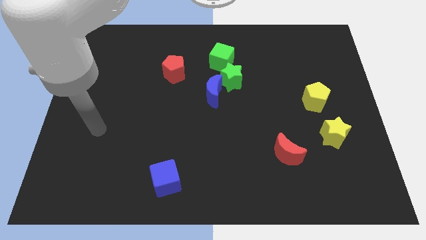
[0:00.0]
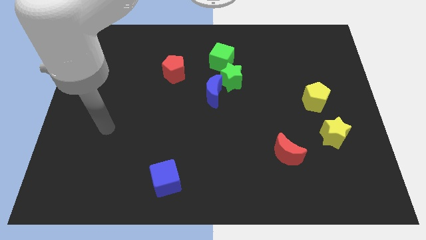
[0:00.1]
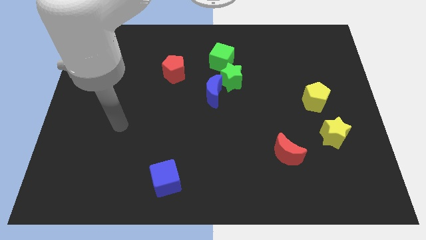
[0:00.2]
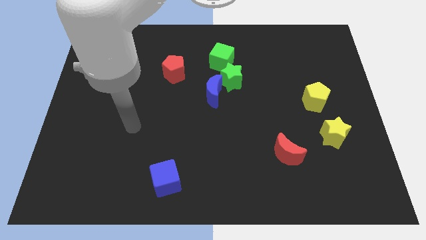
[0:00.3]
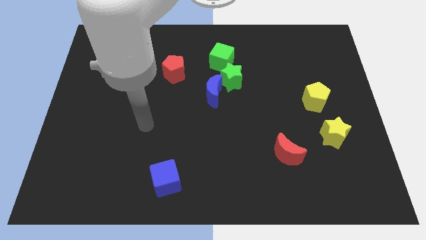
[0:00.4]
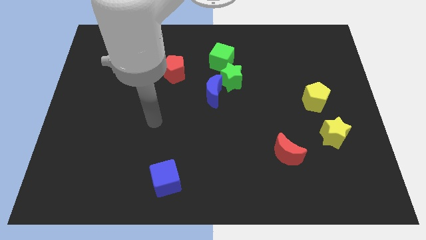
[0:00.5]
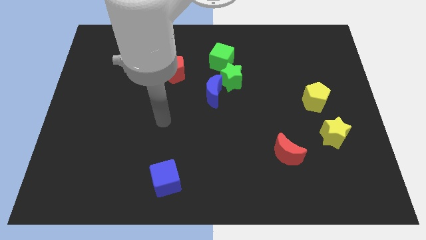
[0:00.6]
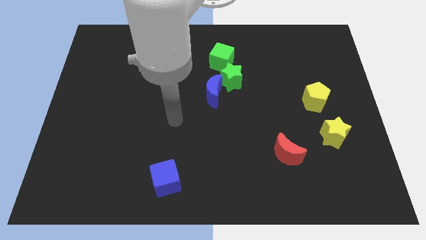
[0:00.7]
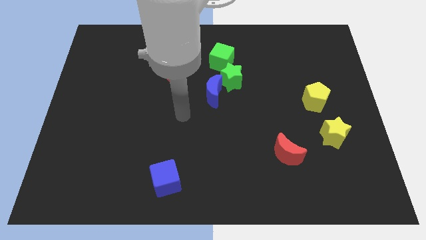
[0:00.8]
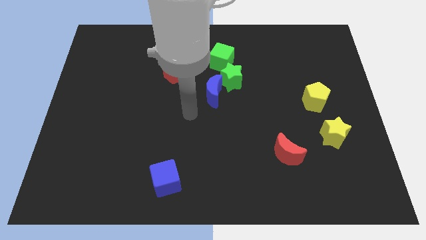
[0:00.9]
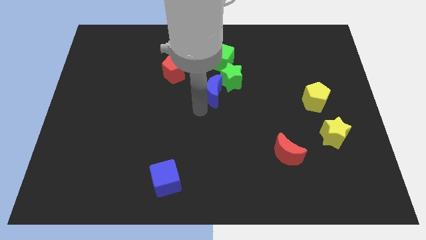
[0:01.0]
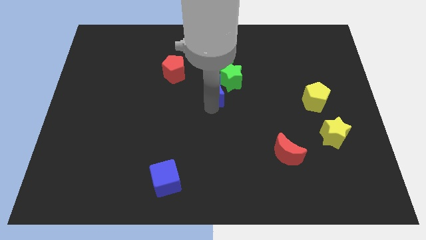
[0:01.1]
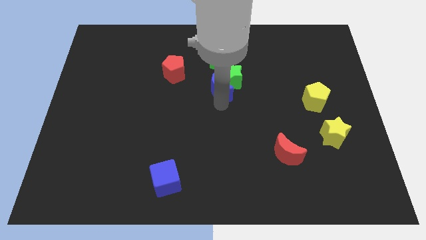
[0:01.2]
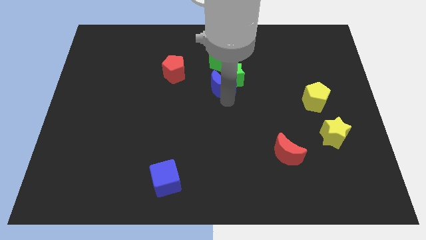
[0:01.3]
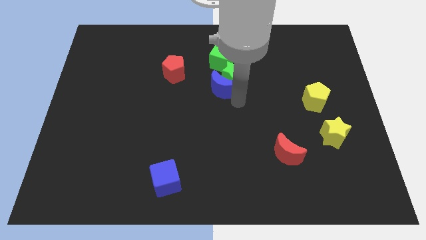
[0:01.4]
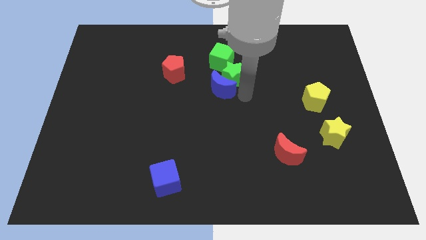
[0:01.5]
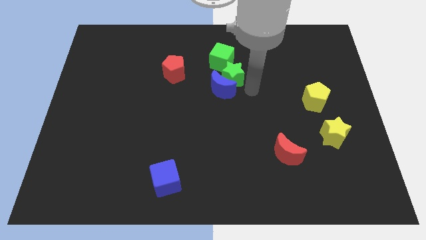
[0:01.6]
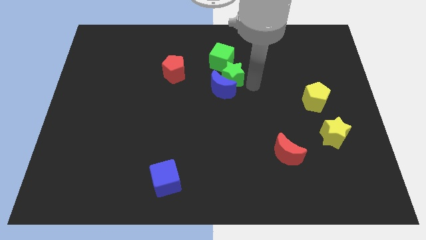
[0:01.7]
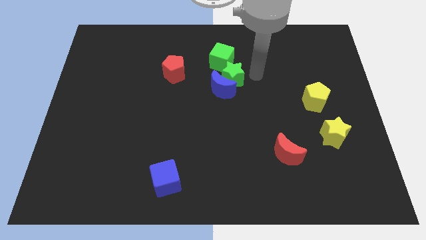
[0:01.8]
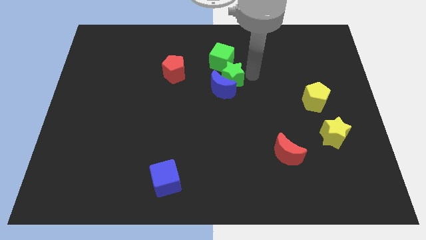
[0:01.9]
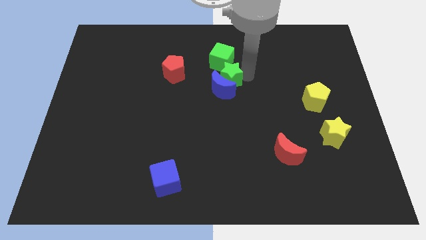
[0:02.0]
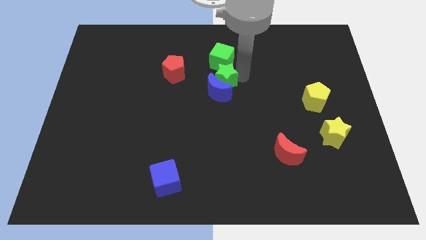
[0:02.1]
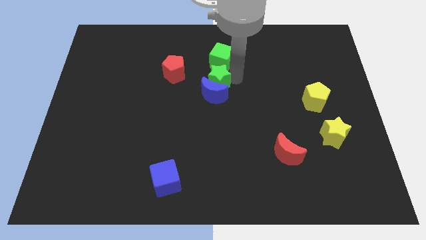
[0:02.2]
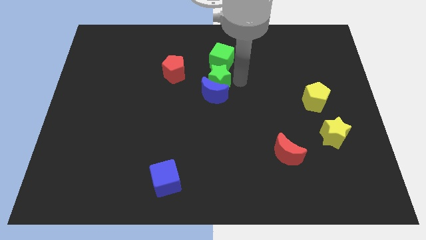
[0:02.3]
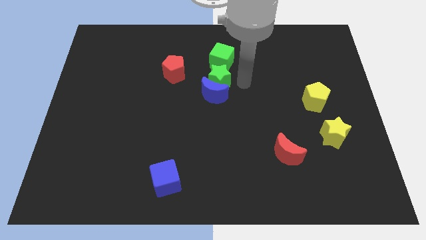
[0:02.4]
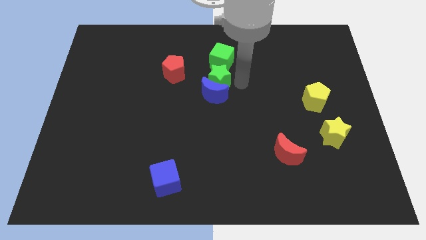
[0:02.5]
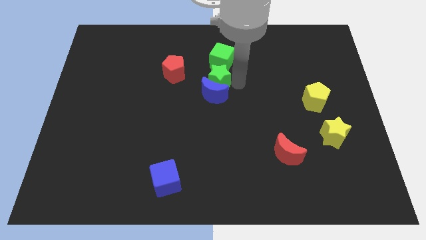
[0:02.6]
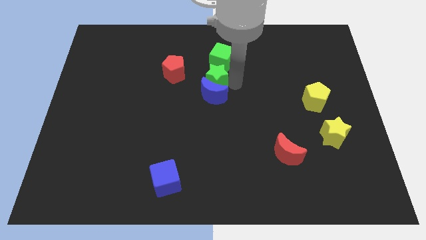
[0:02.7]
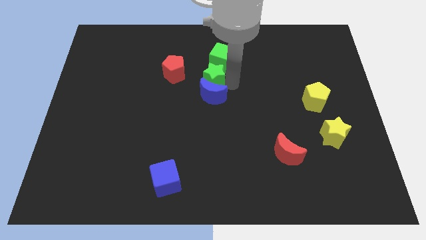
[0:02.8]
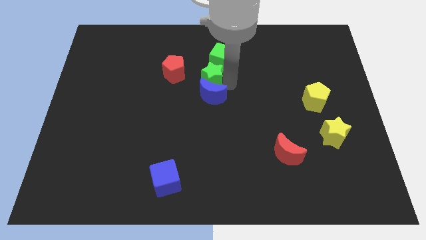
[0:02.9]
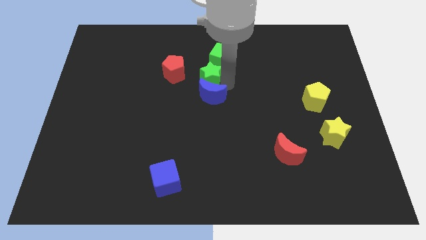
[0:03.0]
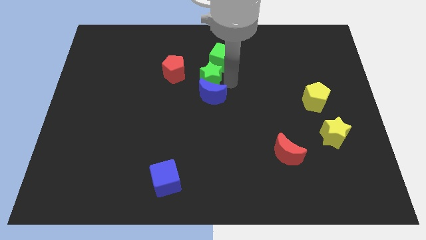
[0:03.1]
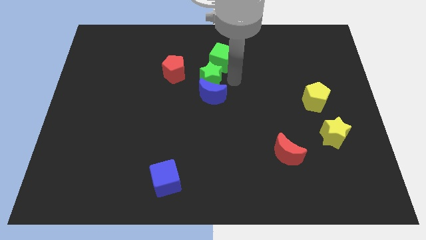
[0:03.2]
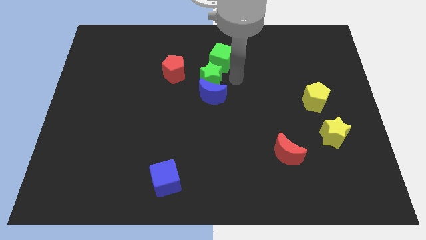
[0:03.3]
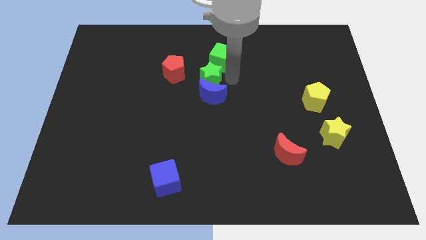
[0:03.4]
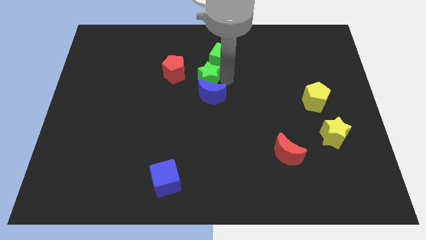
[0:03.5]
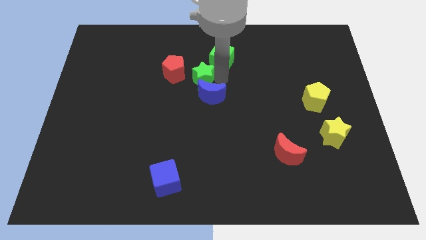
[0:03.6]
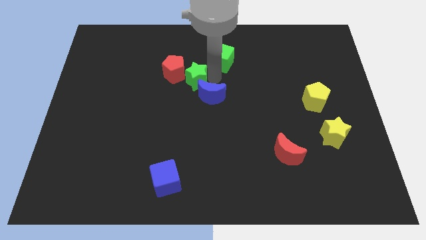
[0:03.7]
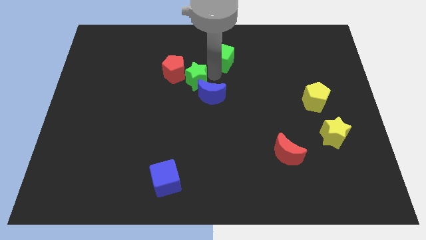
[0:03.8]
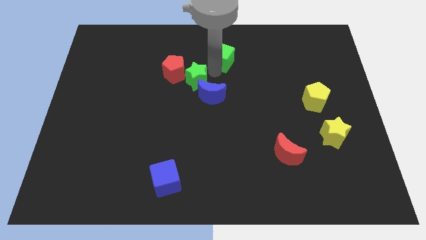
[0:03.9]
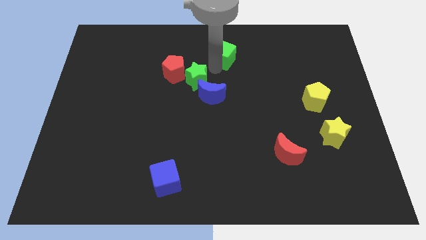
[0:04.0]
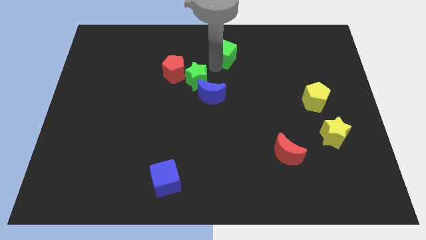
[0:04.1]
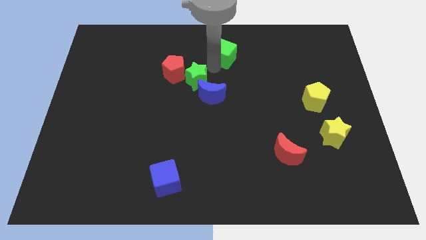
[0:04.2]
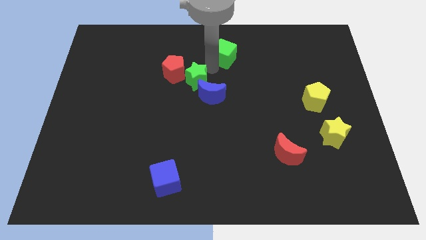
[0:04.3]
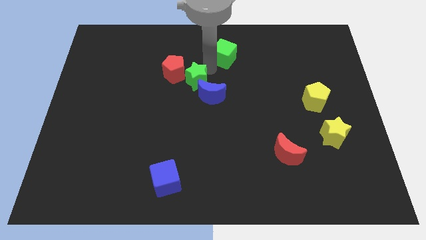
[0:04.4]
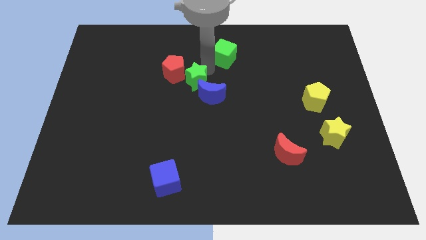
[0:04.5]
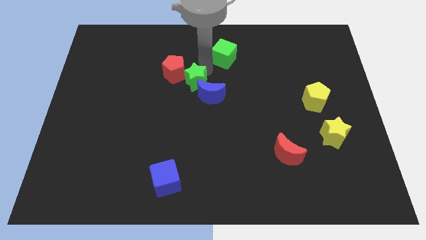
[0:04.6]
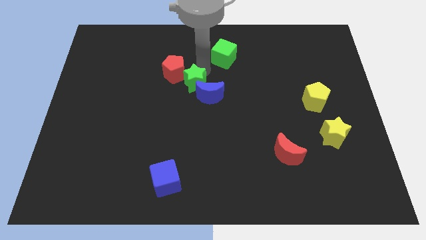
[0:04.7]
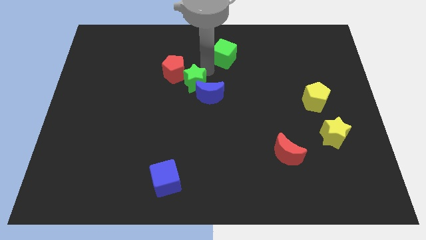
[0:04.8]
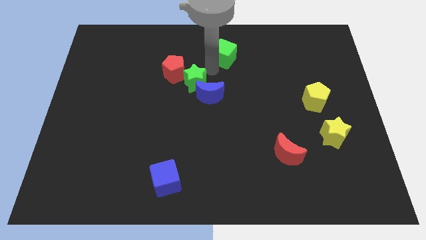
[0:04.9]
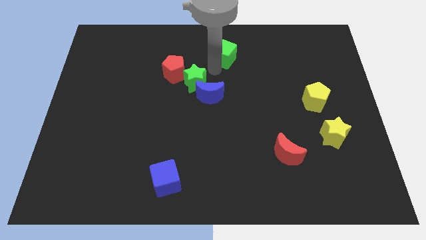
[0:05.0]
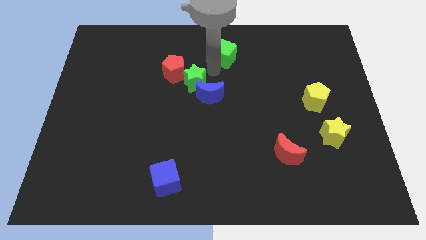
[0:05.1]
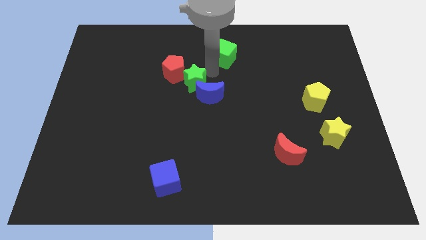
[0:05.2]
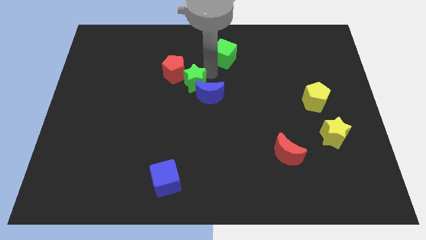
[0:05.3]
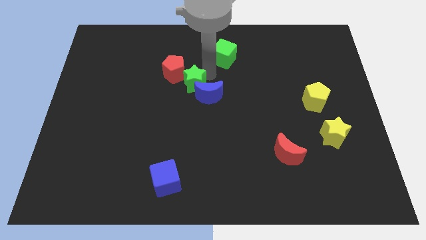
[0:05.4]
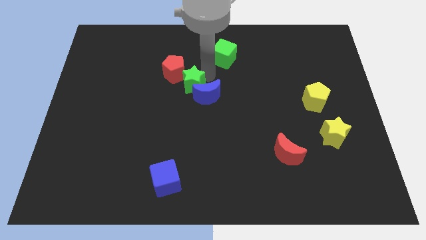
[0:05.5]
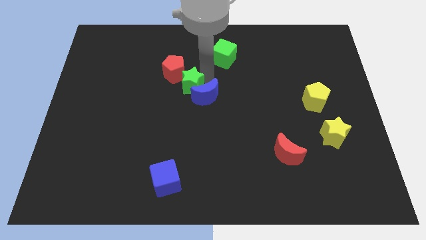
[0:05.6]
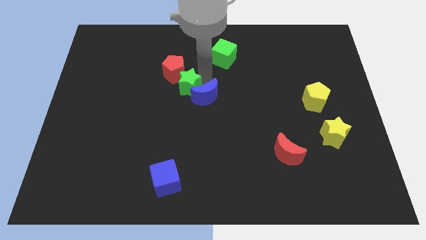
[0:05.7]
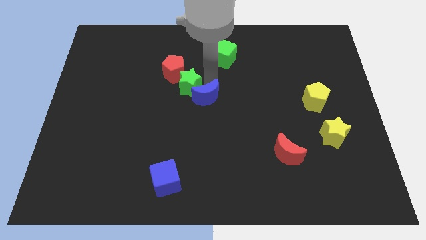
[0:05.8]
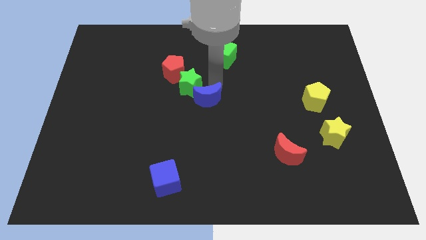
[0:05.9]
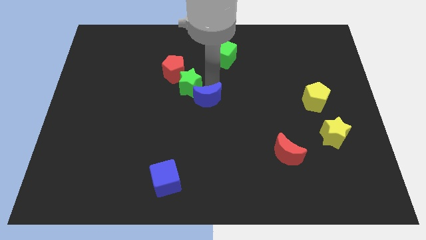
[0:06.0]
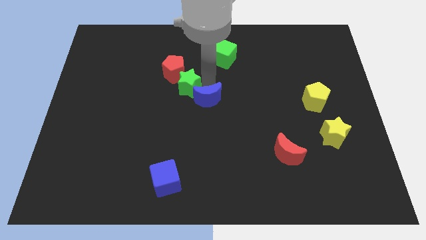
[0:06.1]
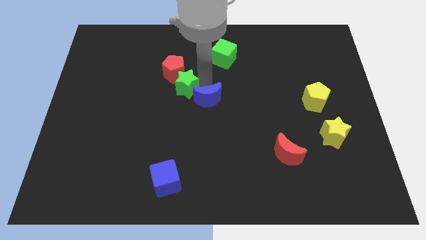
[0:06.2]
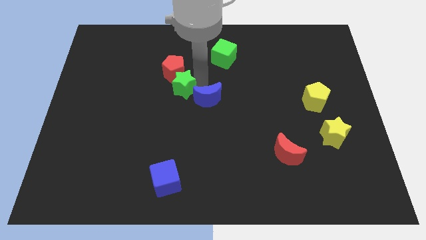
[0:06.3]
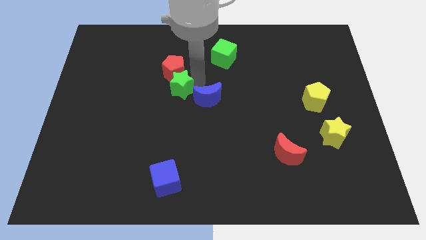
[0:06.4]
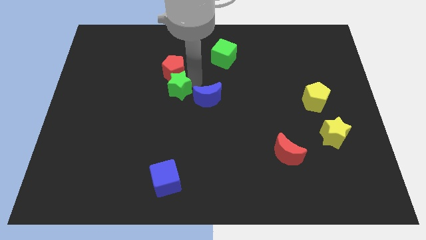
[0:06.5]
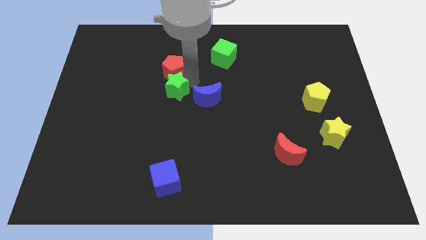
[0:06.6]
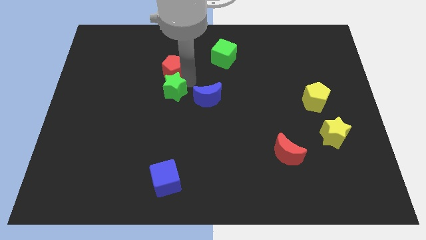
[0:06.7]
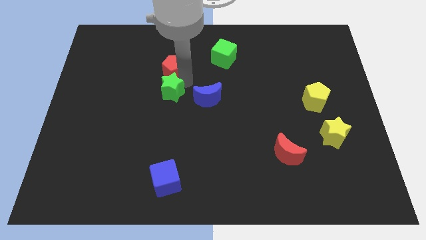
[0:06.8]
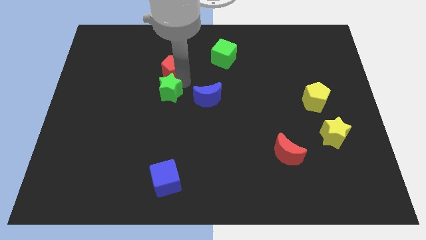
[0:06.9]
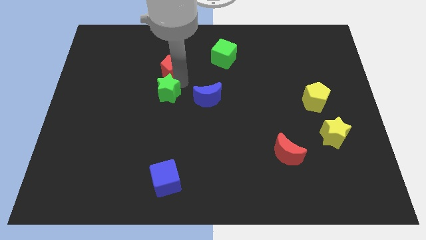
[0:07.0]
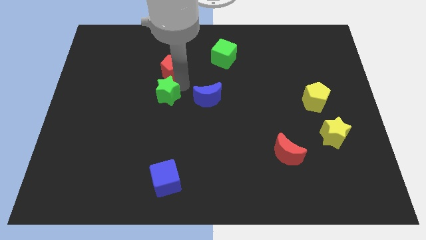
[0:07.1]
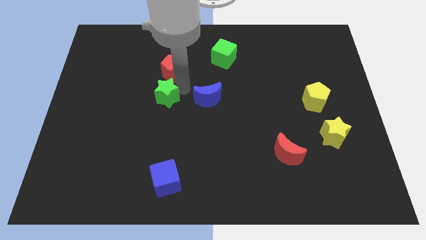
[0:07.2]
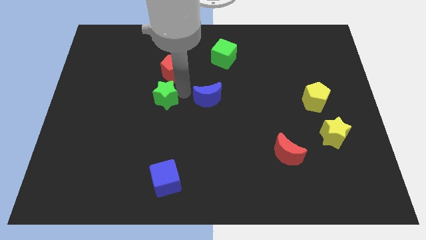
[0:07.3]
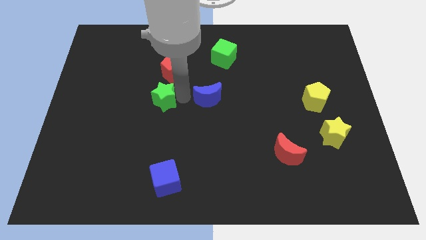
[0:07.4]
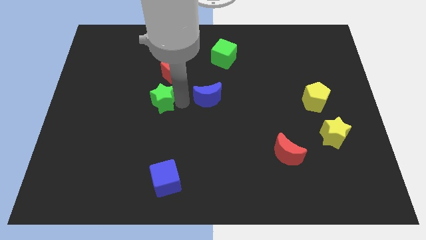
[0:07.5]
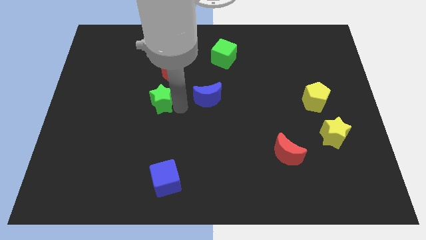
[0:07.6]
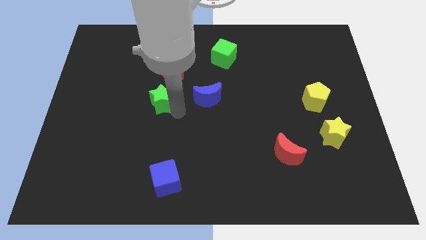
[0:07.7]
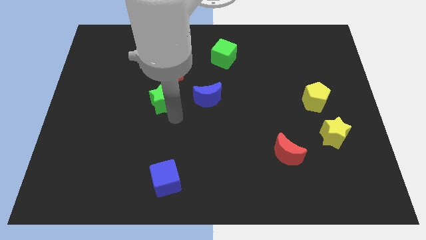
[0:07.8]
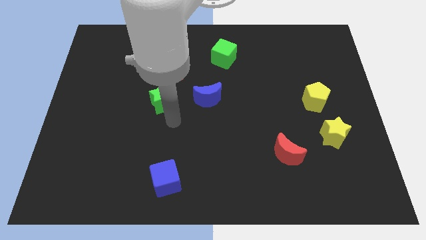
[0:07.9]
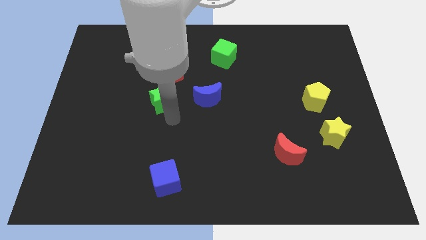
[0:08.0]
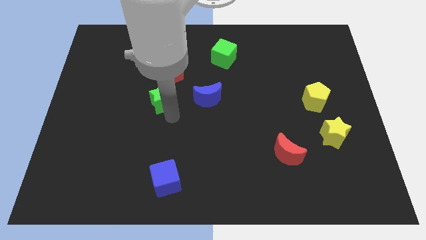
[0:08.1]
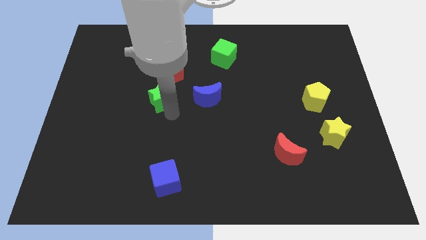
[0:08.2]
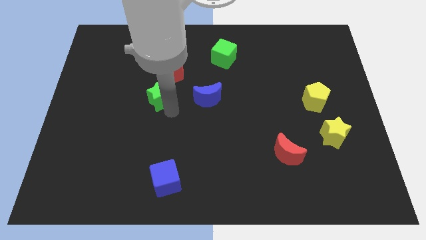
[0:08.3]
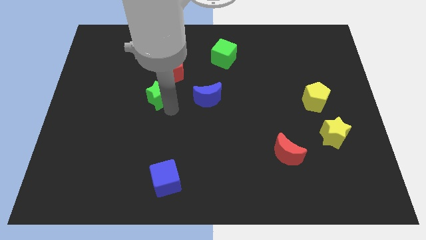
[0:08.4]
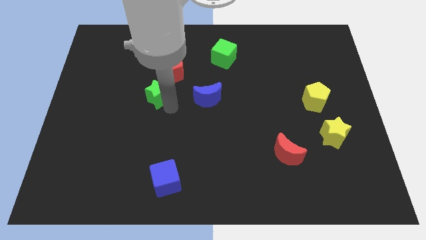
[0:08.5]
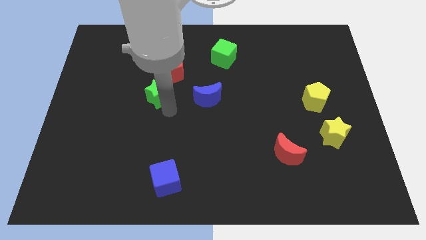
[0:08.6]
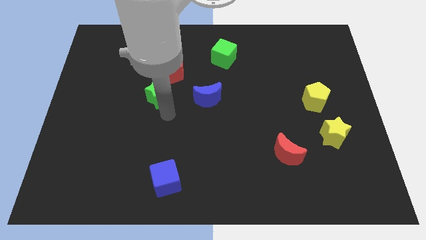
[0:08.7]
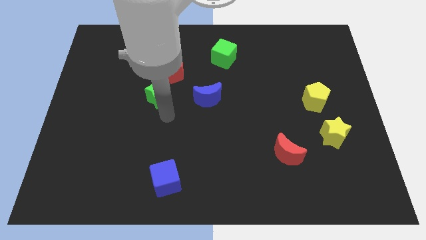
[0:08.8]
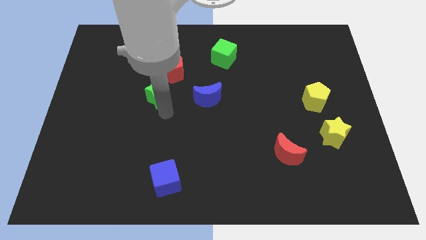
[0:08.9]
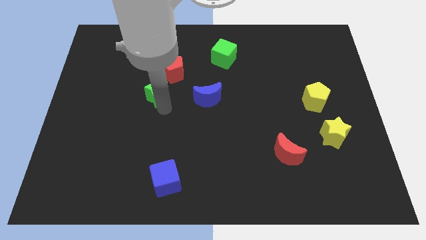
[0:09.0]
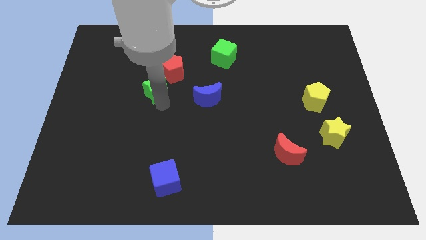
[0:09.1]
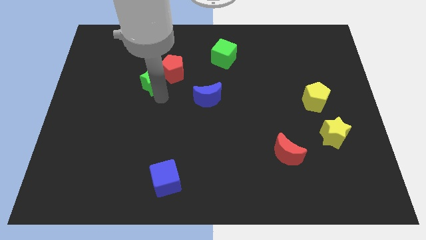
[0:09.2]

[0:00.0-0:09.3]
put the green star just left of the red pentagon
